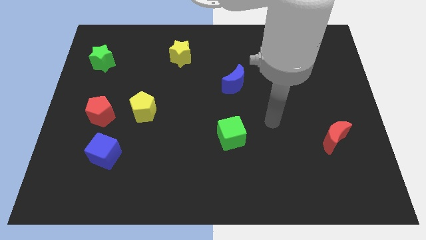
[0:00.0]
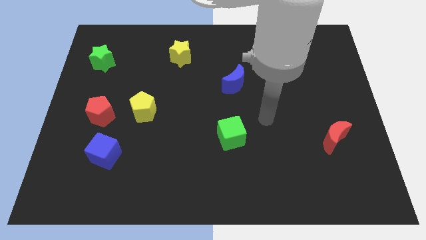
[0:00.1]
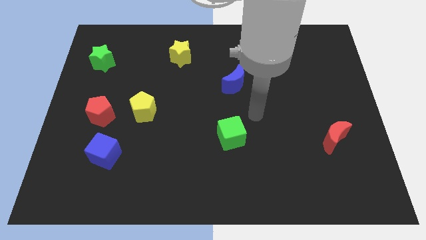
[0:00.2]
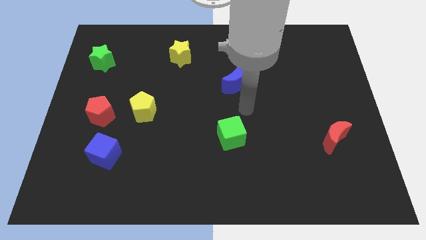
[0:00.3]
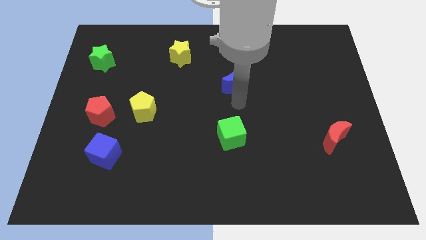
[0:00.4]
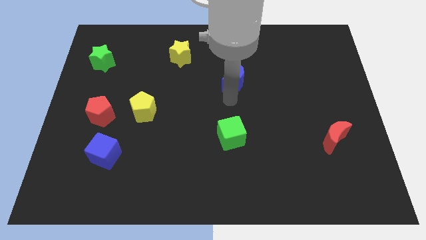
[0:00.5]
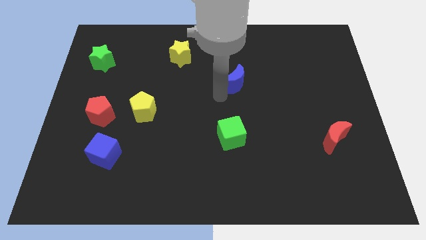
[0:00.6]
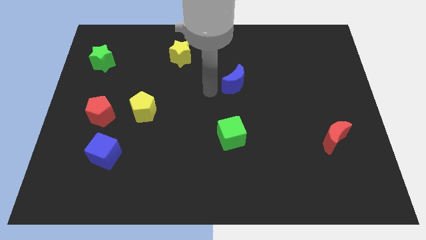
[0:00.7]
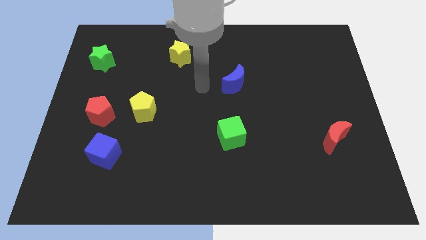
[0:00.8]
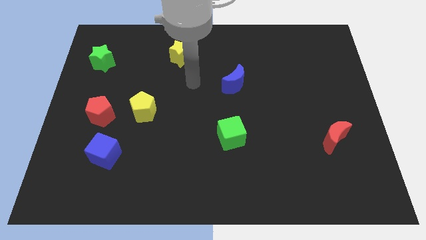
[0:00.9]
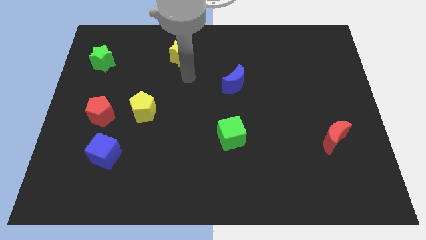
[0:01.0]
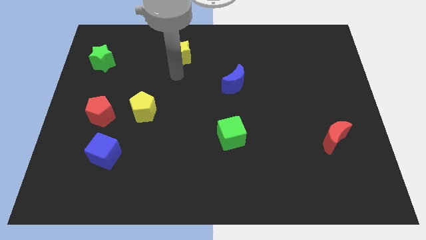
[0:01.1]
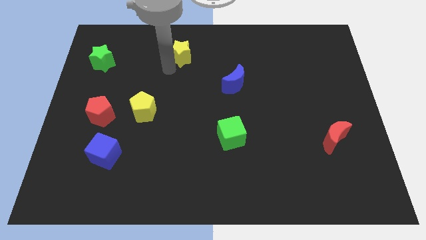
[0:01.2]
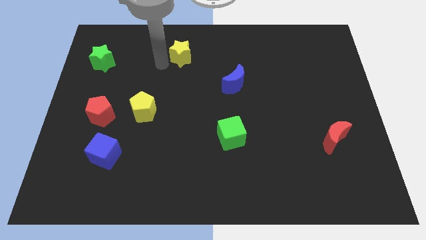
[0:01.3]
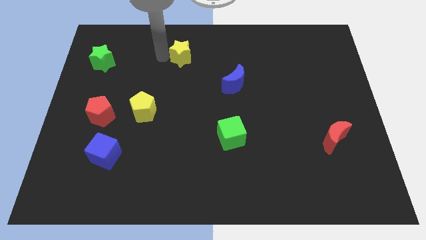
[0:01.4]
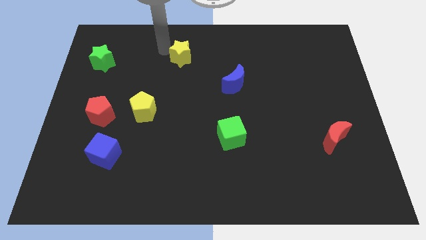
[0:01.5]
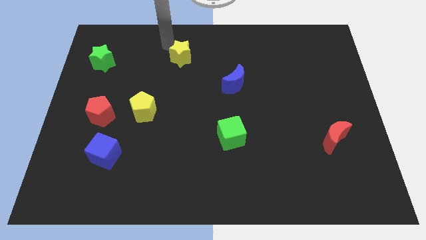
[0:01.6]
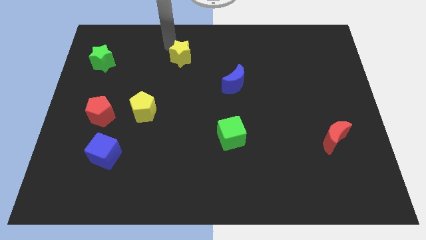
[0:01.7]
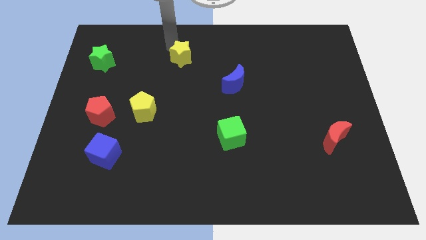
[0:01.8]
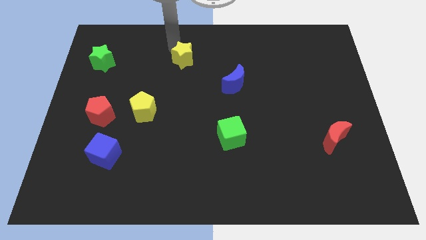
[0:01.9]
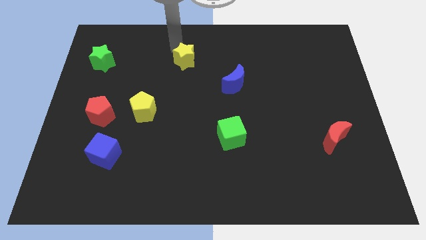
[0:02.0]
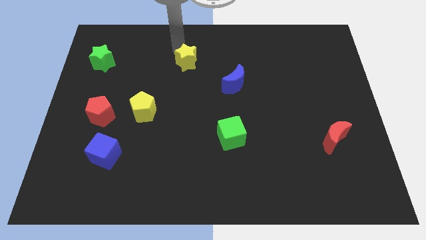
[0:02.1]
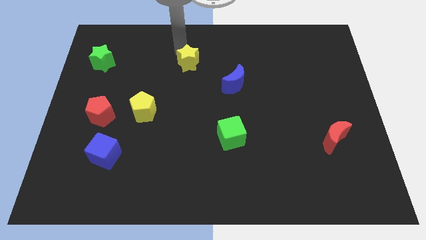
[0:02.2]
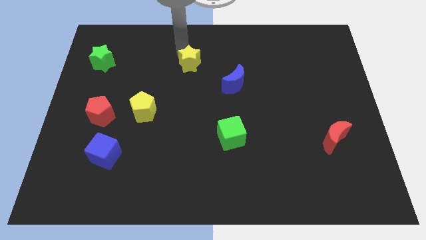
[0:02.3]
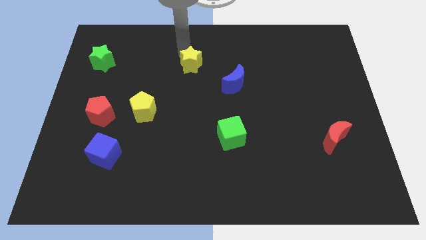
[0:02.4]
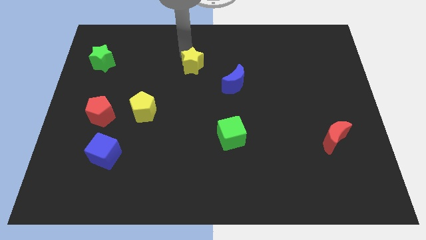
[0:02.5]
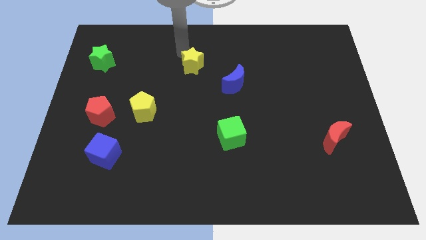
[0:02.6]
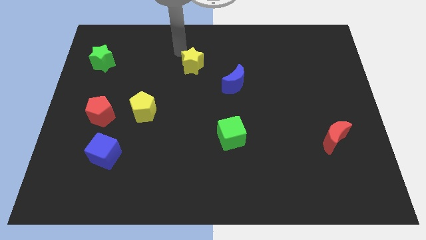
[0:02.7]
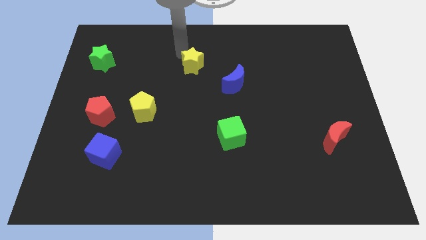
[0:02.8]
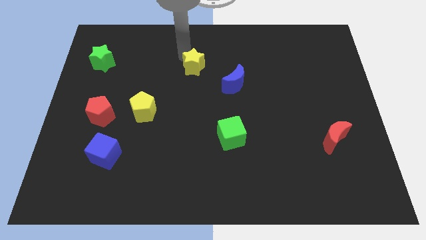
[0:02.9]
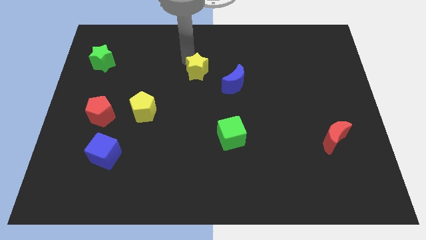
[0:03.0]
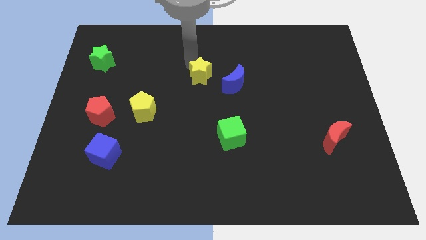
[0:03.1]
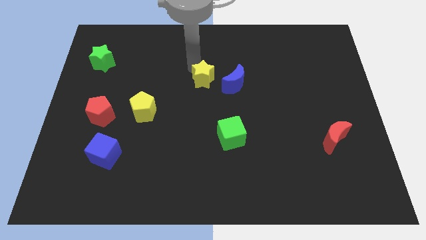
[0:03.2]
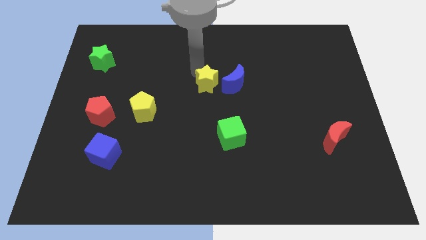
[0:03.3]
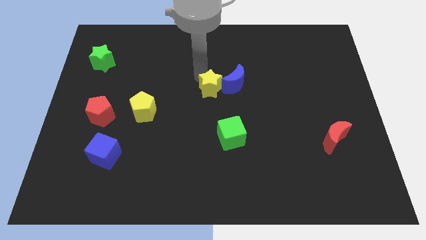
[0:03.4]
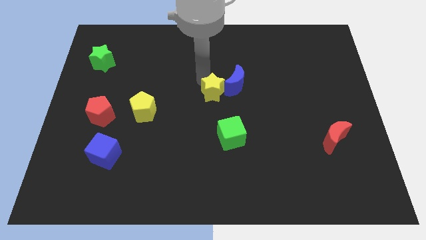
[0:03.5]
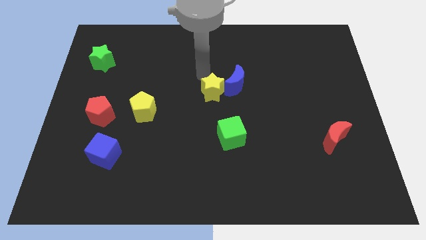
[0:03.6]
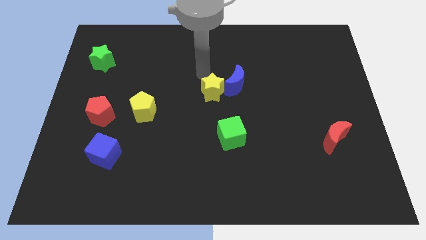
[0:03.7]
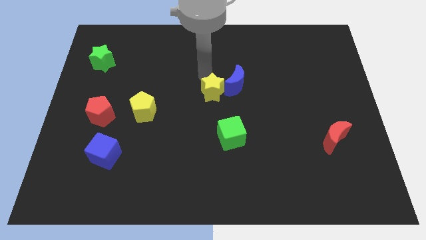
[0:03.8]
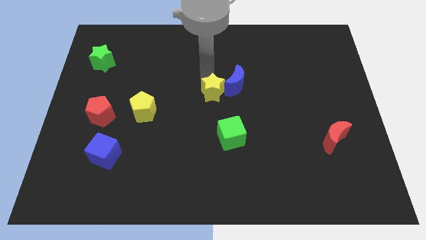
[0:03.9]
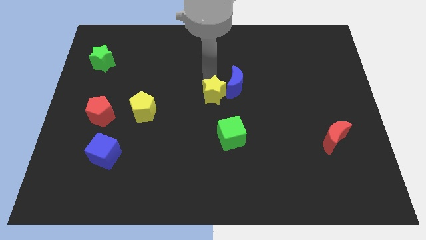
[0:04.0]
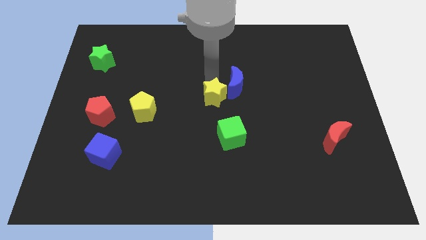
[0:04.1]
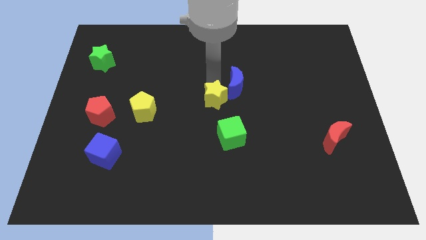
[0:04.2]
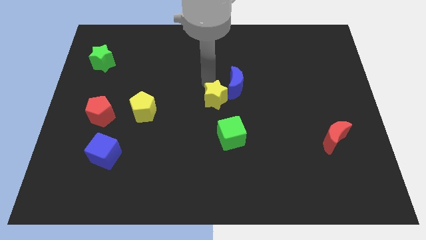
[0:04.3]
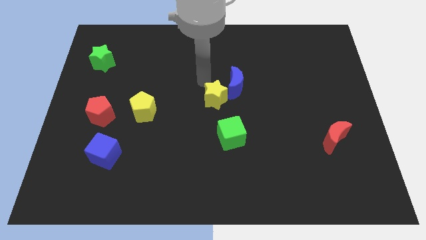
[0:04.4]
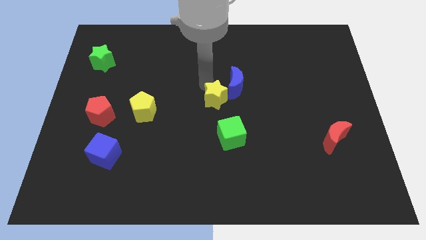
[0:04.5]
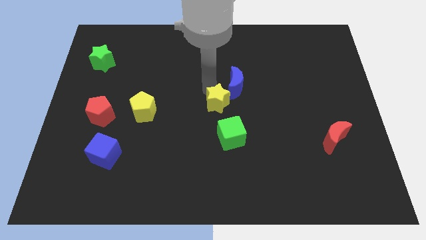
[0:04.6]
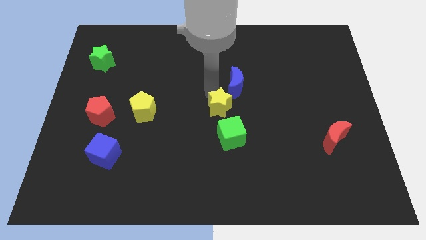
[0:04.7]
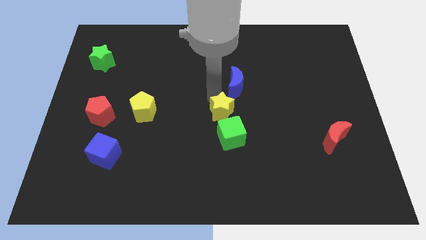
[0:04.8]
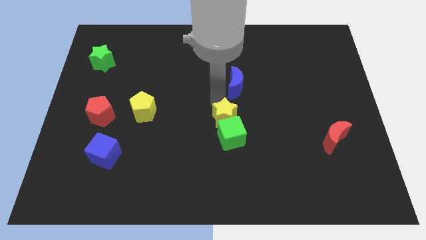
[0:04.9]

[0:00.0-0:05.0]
slide the yellow star close to the green cube

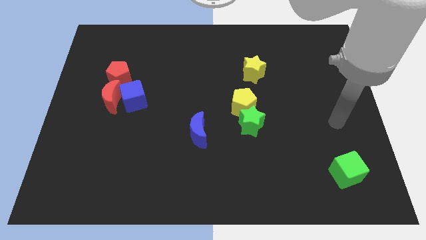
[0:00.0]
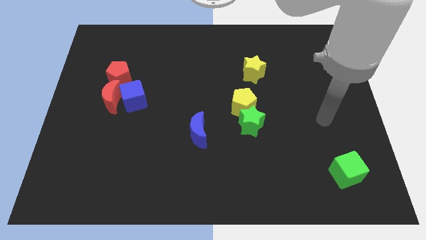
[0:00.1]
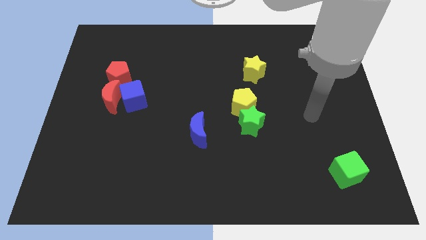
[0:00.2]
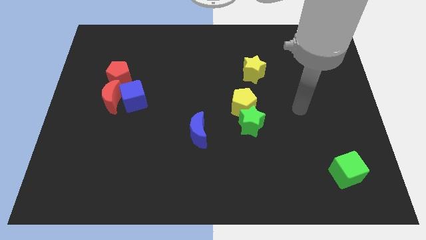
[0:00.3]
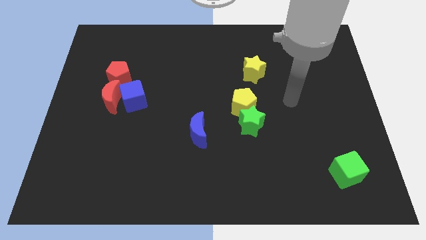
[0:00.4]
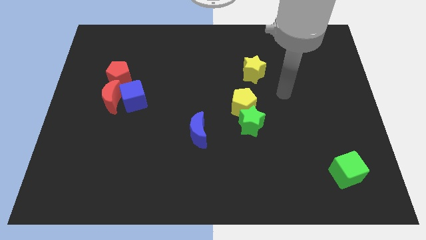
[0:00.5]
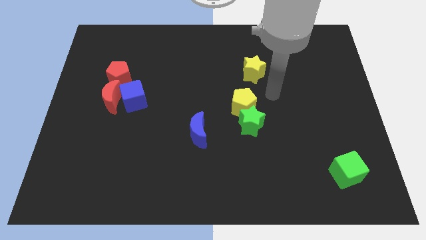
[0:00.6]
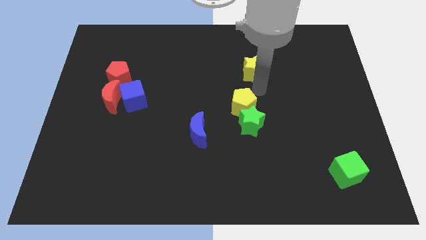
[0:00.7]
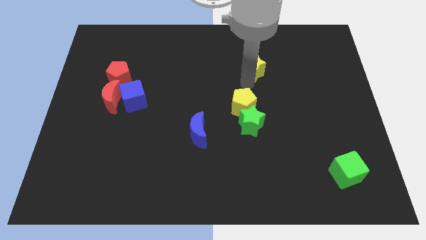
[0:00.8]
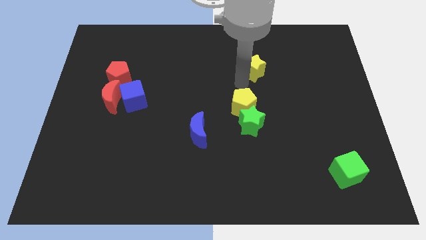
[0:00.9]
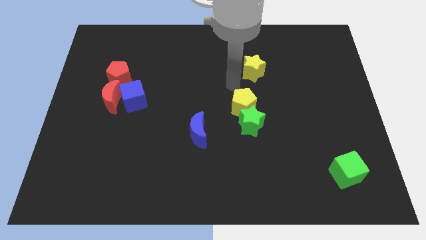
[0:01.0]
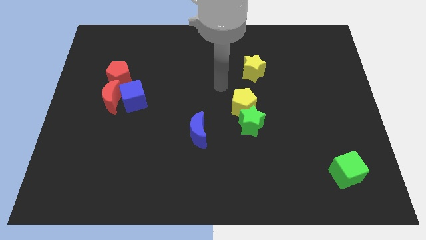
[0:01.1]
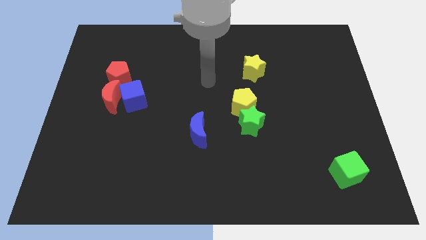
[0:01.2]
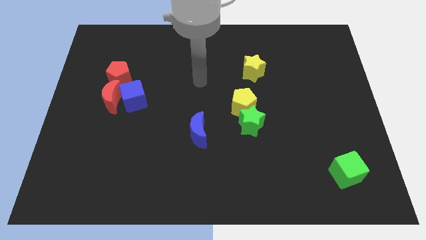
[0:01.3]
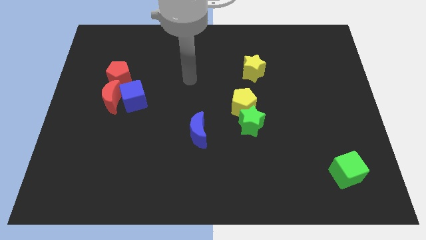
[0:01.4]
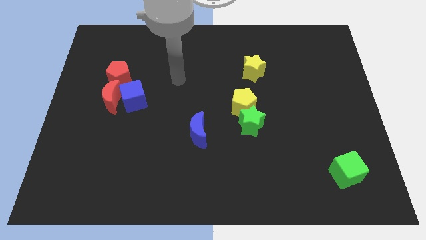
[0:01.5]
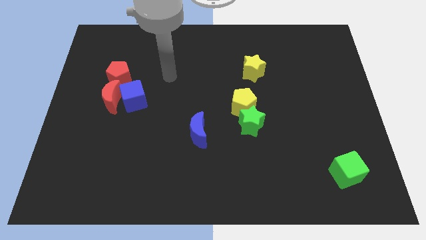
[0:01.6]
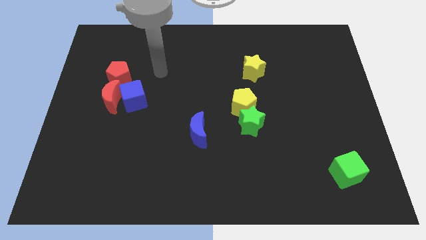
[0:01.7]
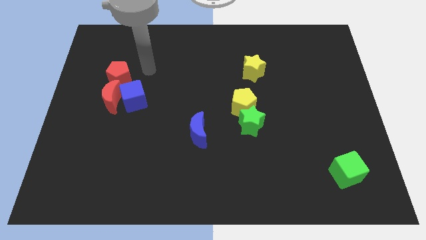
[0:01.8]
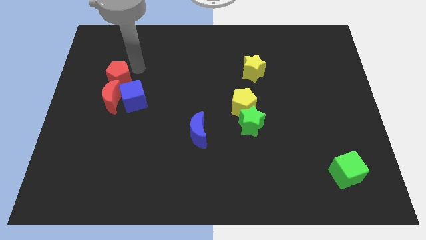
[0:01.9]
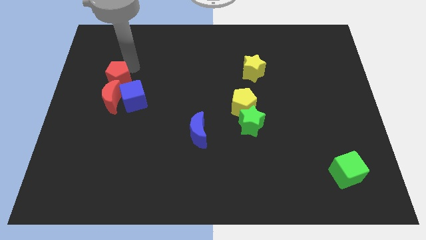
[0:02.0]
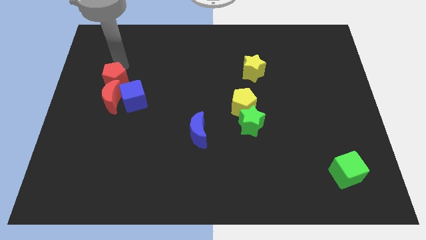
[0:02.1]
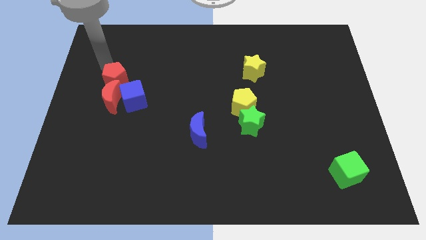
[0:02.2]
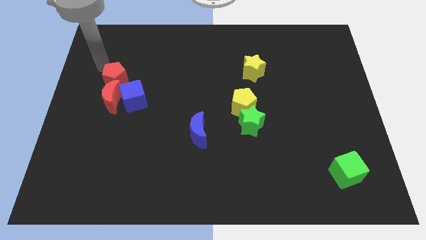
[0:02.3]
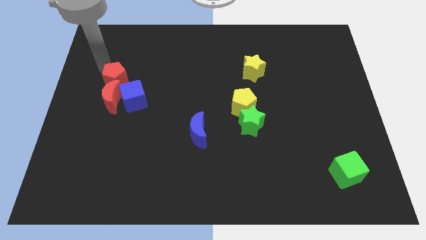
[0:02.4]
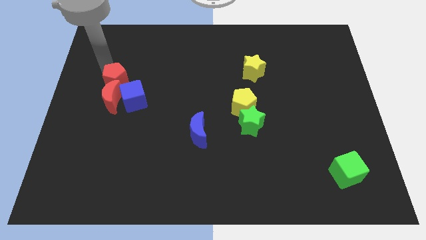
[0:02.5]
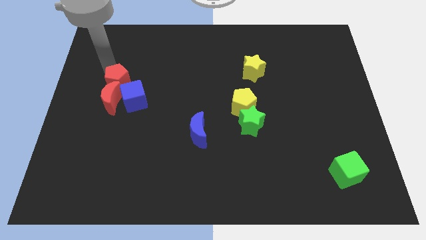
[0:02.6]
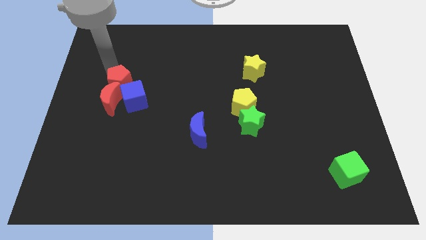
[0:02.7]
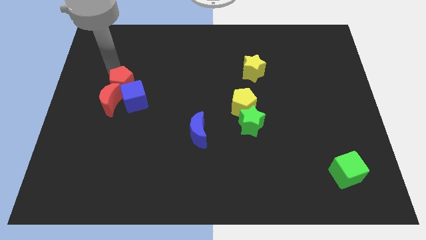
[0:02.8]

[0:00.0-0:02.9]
put the red pentagon towards the blue cube

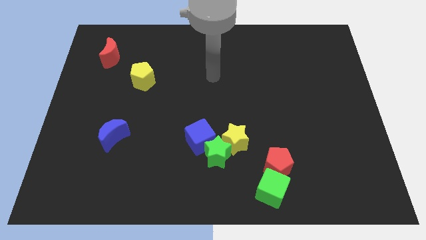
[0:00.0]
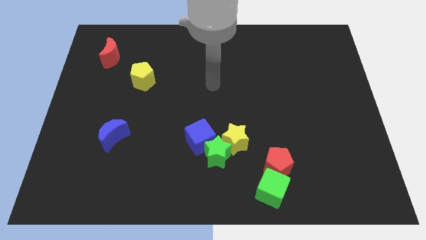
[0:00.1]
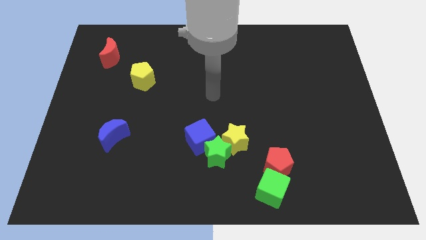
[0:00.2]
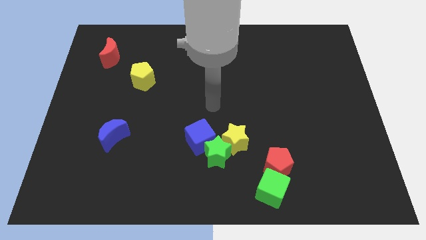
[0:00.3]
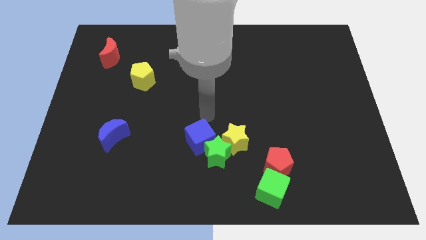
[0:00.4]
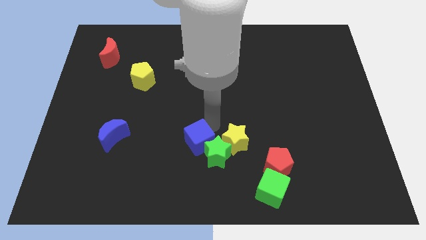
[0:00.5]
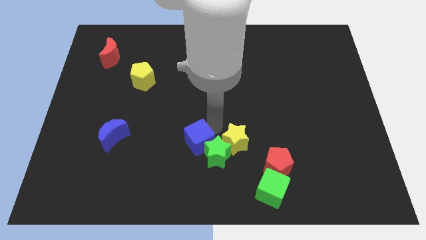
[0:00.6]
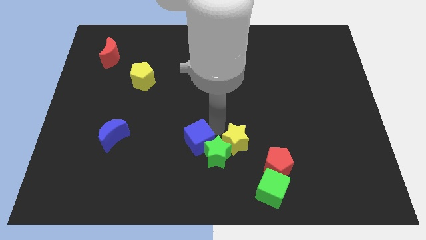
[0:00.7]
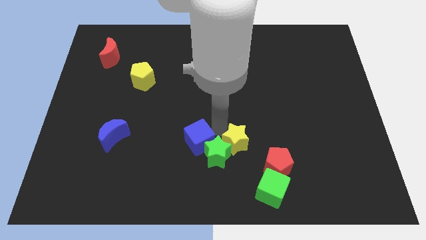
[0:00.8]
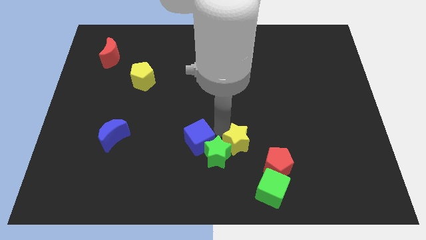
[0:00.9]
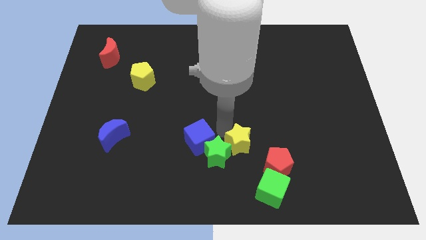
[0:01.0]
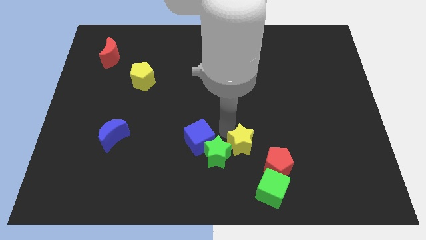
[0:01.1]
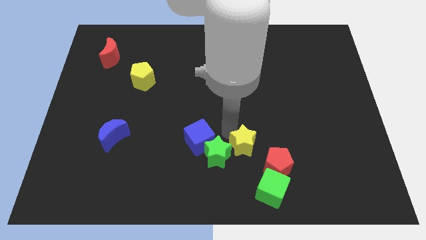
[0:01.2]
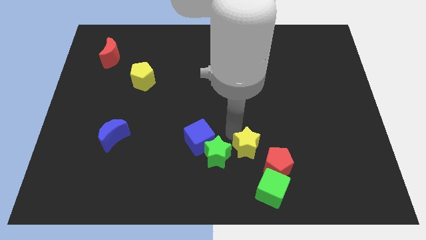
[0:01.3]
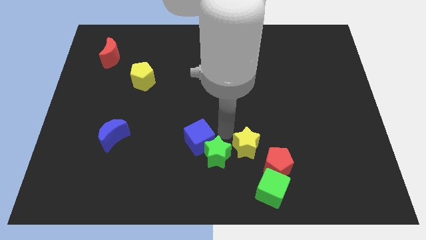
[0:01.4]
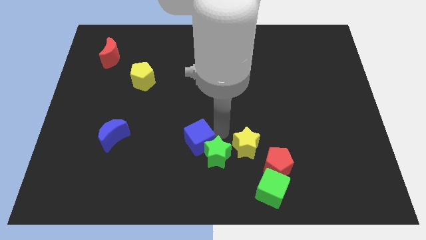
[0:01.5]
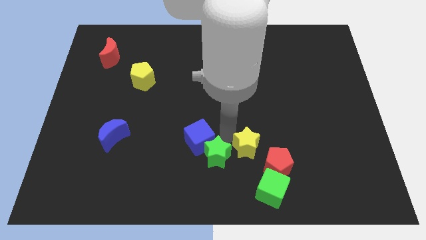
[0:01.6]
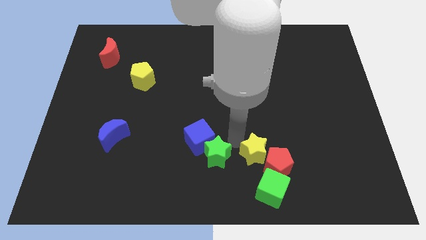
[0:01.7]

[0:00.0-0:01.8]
move the yellow star to the red pentagon
